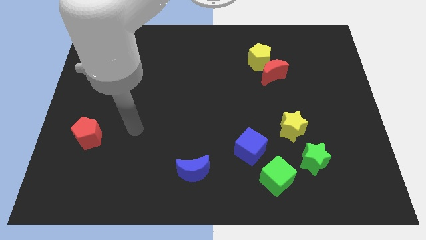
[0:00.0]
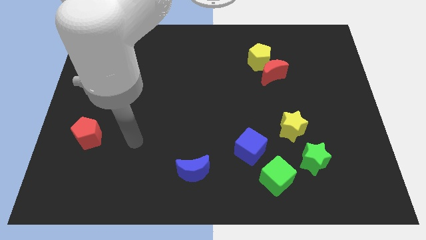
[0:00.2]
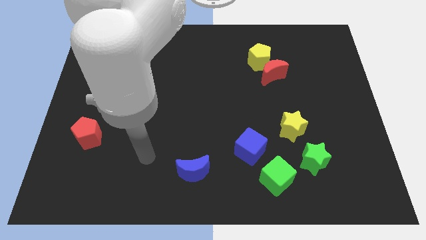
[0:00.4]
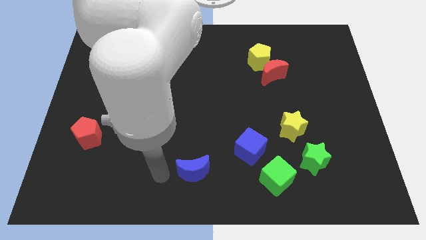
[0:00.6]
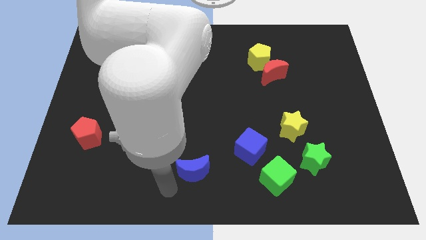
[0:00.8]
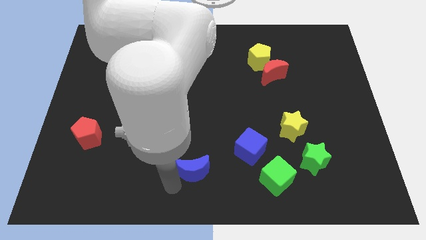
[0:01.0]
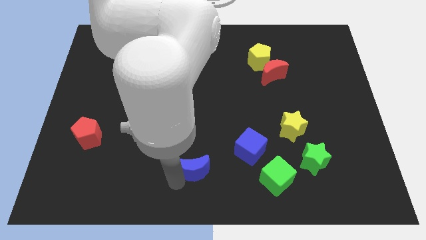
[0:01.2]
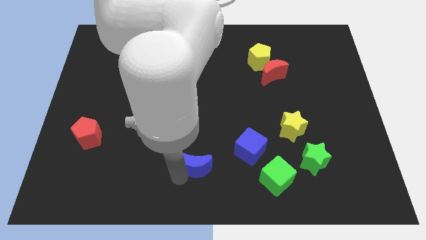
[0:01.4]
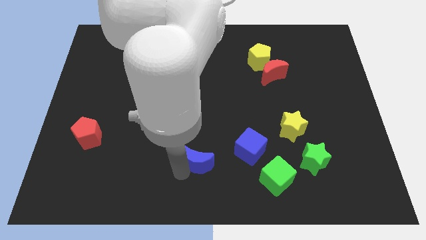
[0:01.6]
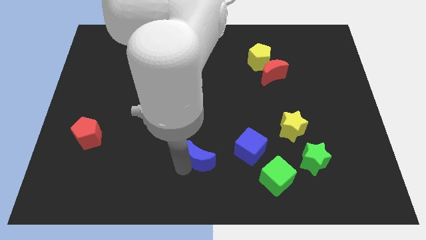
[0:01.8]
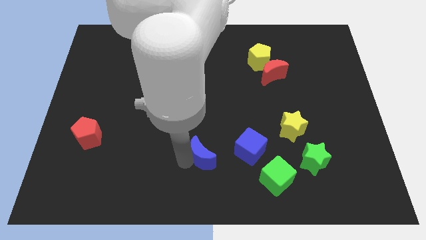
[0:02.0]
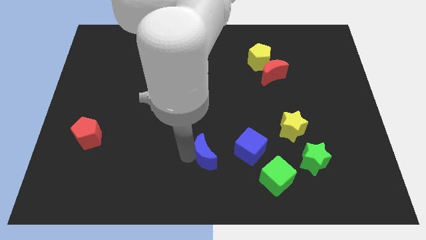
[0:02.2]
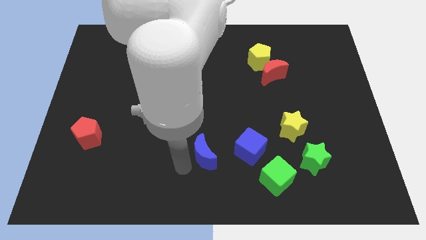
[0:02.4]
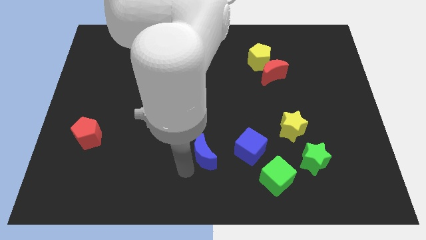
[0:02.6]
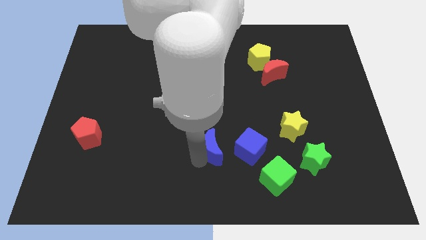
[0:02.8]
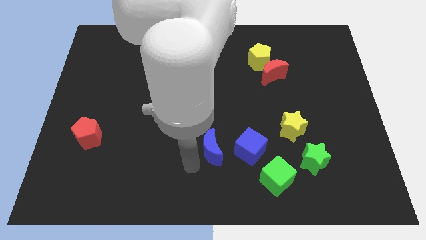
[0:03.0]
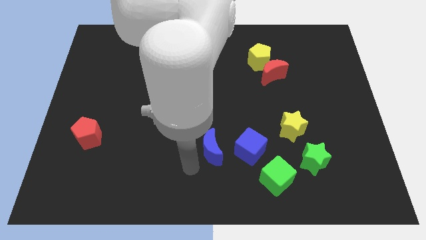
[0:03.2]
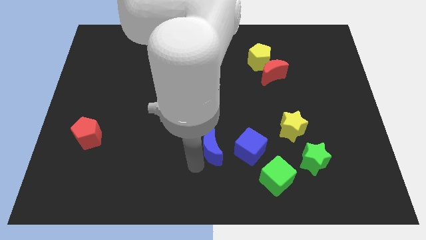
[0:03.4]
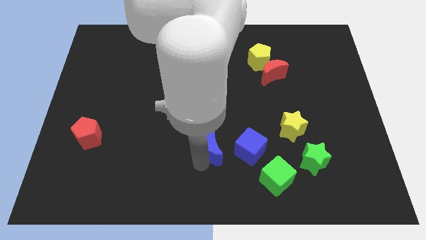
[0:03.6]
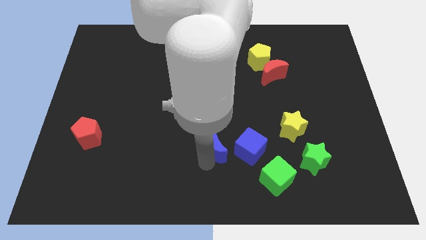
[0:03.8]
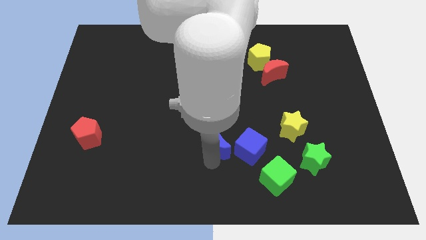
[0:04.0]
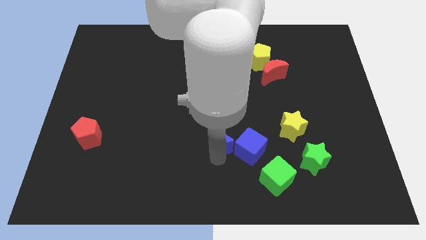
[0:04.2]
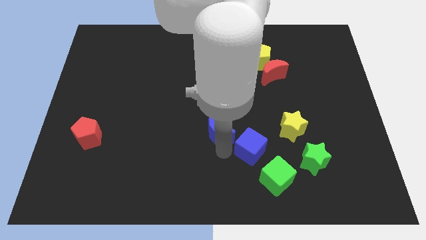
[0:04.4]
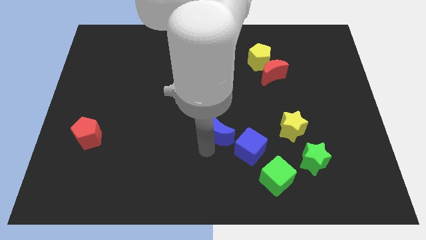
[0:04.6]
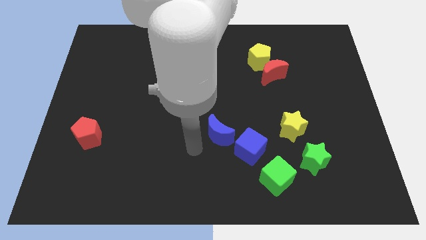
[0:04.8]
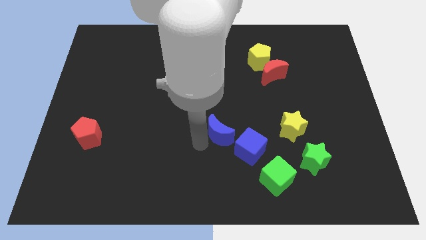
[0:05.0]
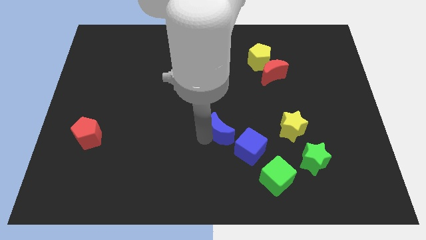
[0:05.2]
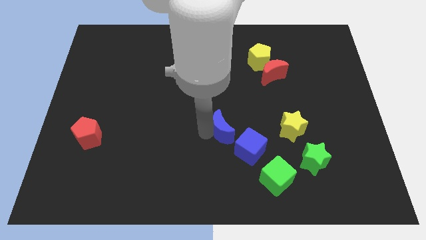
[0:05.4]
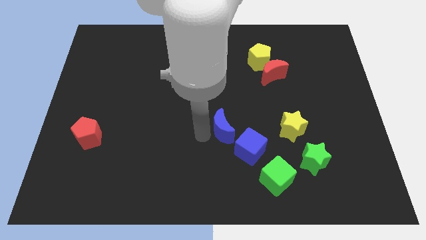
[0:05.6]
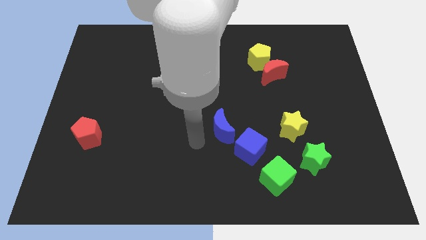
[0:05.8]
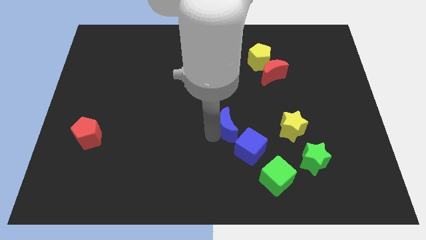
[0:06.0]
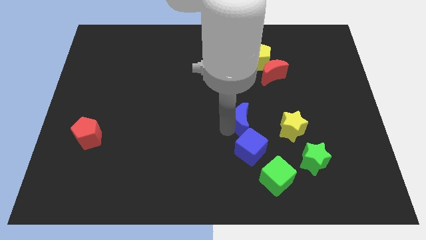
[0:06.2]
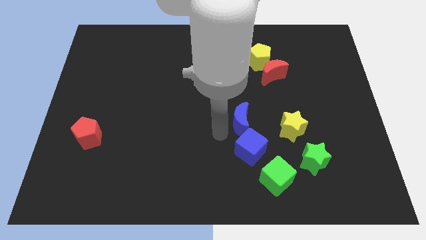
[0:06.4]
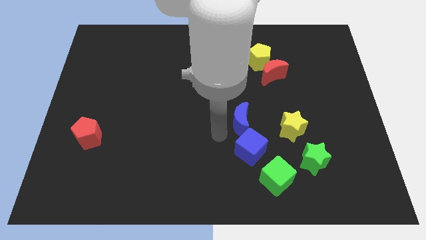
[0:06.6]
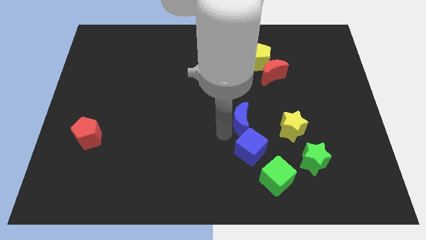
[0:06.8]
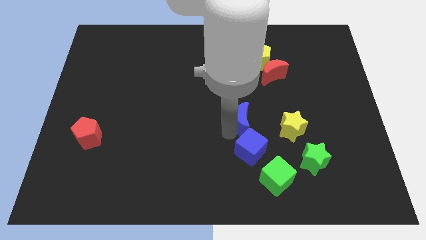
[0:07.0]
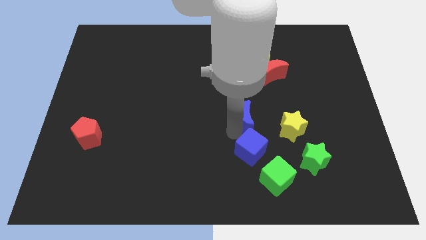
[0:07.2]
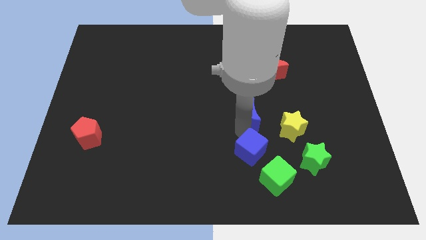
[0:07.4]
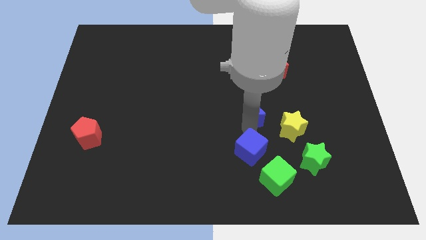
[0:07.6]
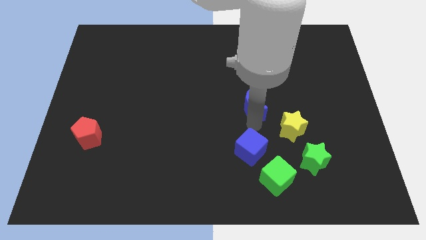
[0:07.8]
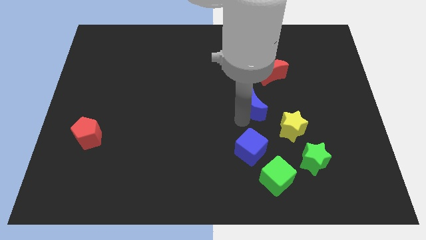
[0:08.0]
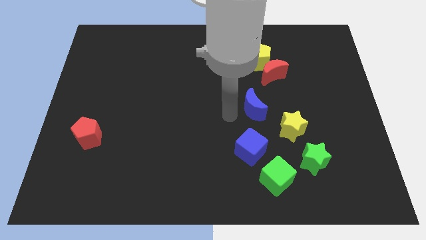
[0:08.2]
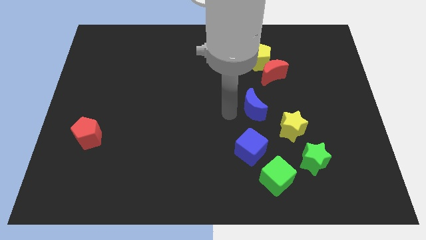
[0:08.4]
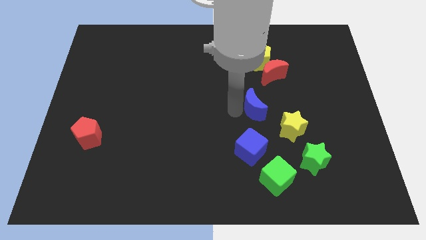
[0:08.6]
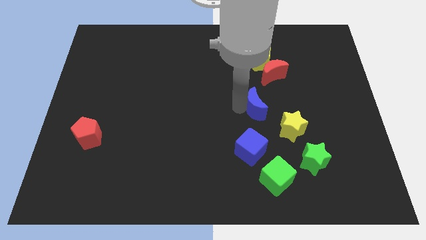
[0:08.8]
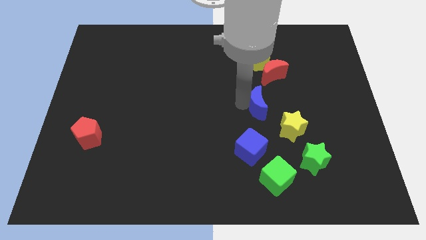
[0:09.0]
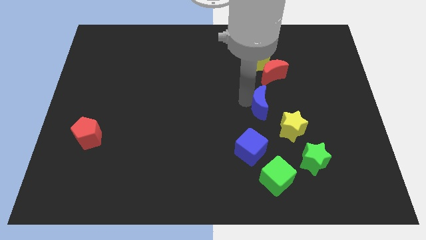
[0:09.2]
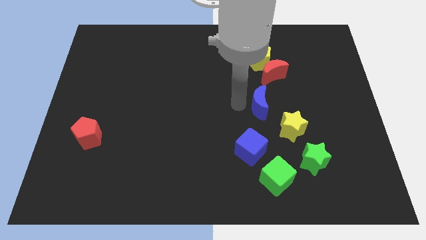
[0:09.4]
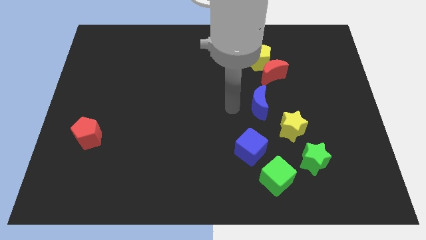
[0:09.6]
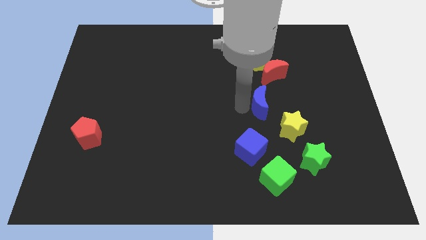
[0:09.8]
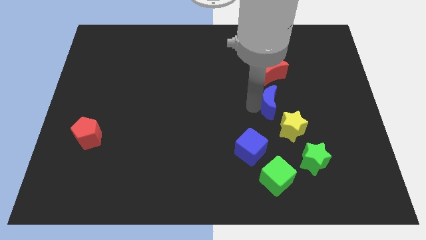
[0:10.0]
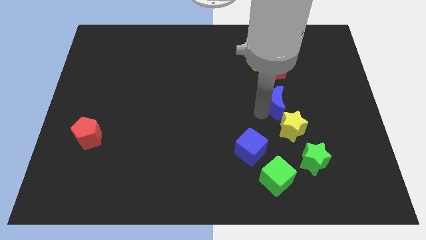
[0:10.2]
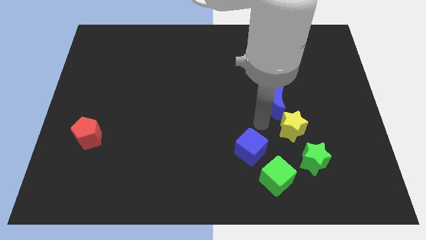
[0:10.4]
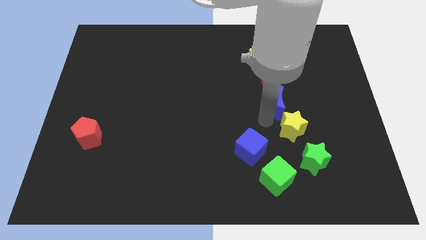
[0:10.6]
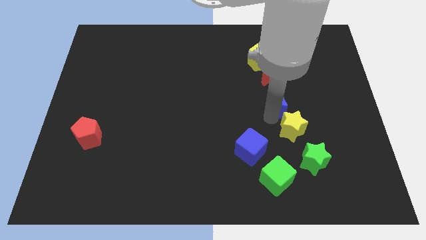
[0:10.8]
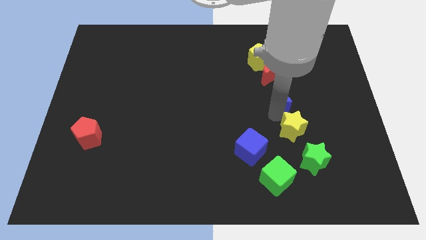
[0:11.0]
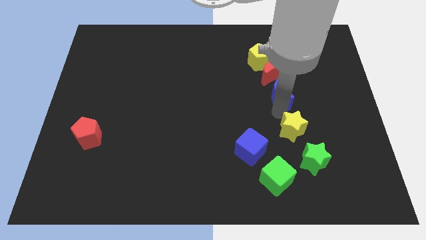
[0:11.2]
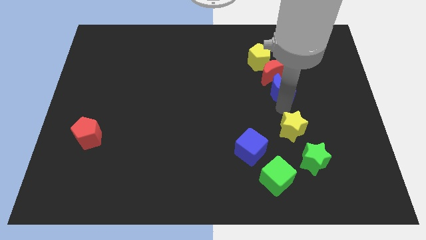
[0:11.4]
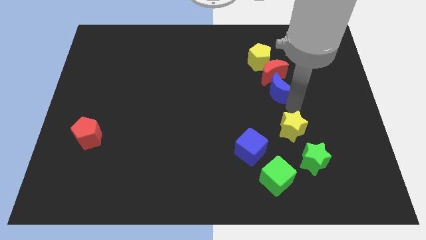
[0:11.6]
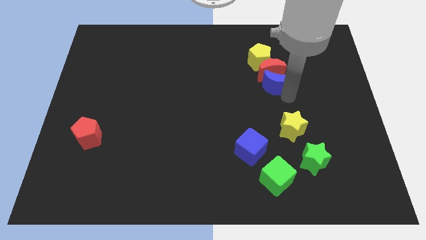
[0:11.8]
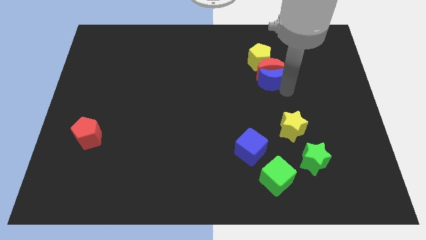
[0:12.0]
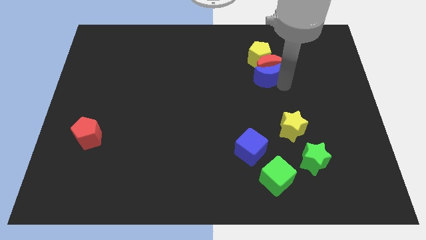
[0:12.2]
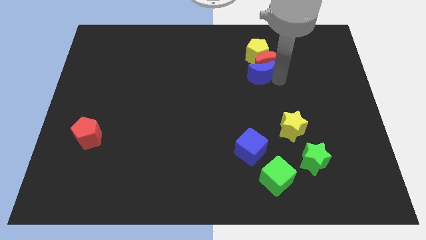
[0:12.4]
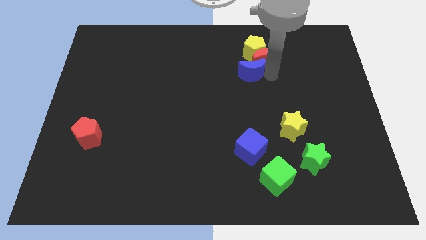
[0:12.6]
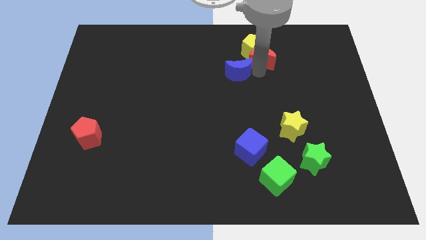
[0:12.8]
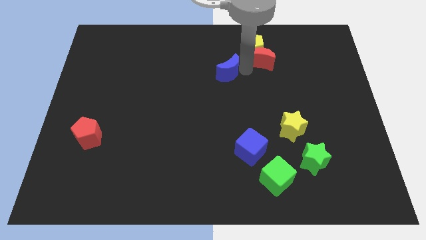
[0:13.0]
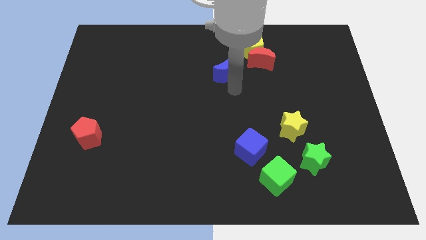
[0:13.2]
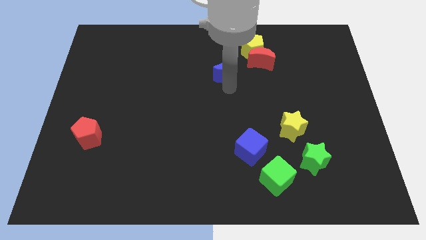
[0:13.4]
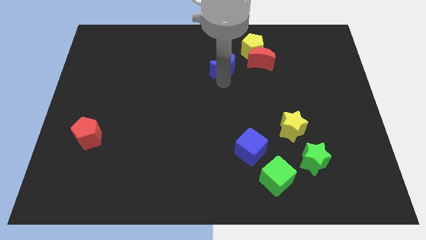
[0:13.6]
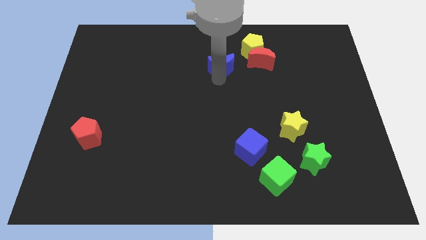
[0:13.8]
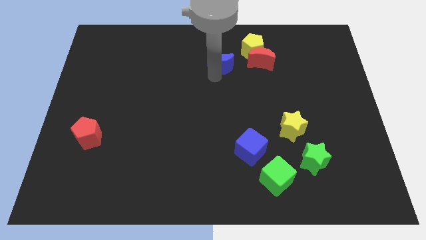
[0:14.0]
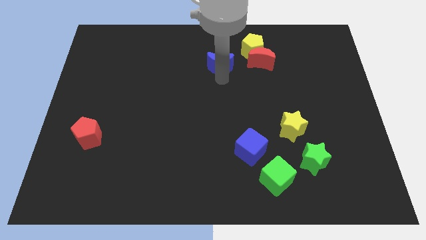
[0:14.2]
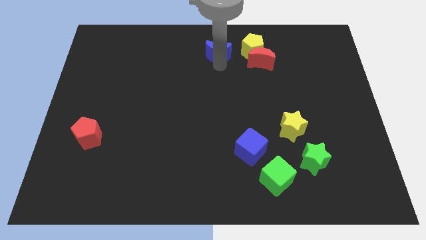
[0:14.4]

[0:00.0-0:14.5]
put the blue moon to the towards your base

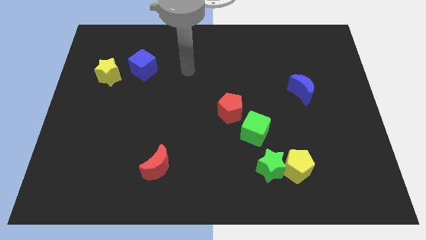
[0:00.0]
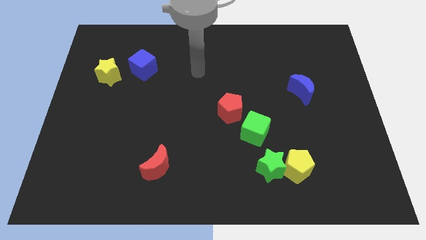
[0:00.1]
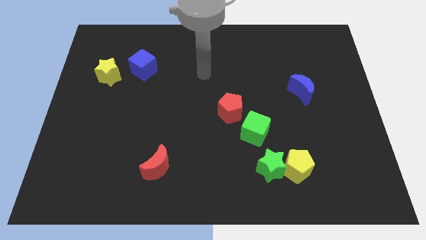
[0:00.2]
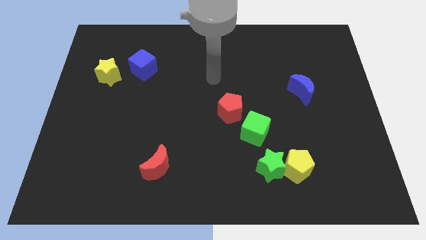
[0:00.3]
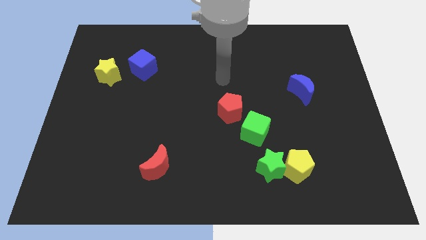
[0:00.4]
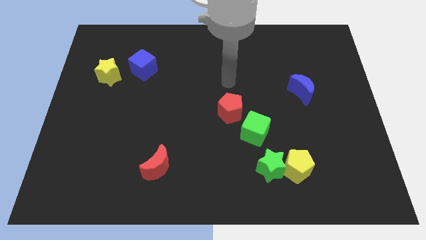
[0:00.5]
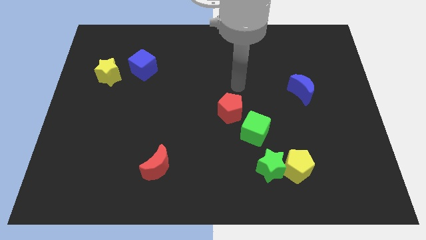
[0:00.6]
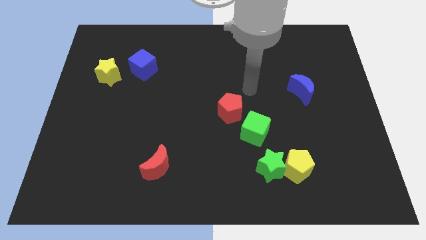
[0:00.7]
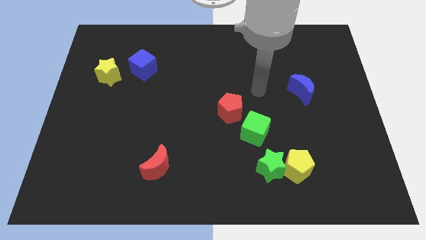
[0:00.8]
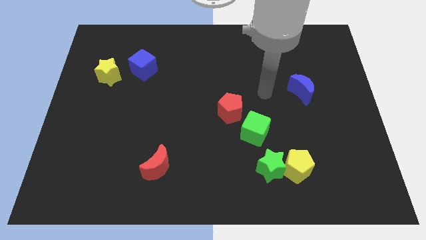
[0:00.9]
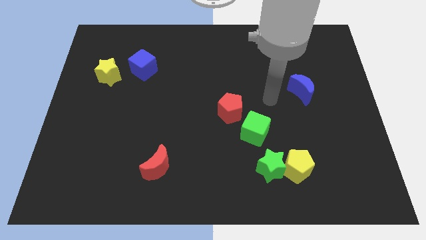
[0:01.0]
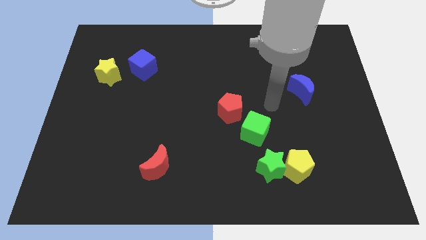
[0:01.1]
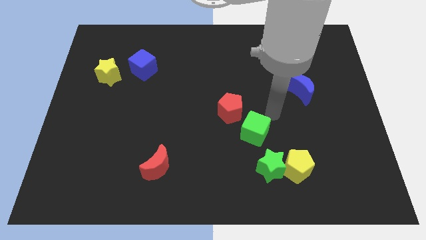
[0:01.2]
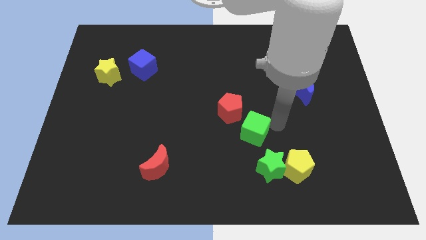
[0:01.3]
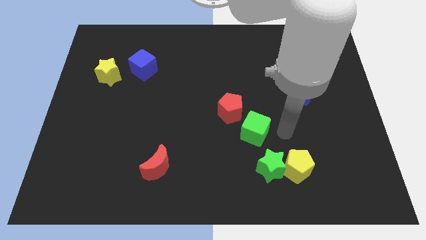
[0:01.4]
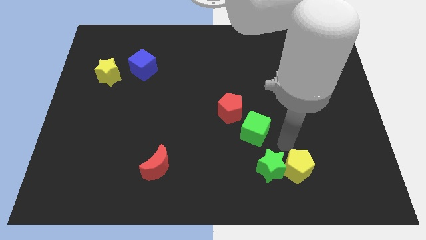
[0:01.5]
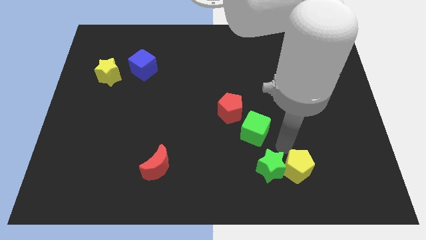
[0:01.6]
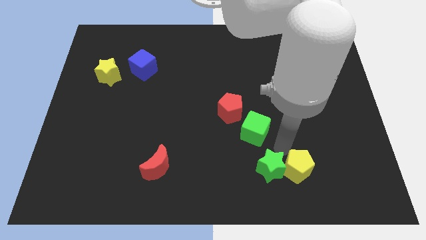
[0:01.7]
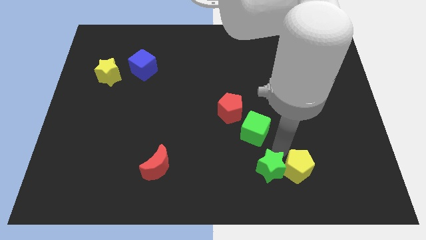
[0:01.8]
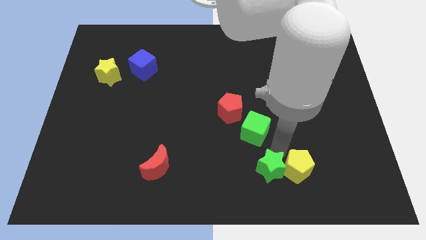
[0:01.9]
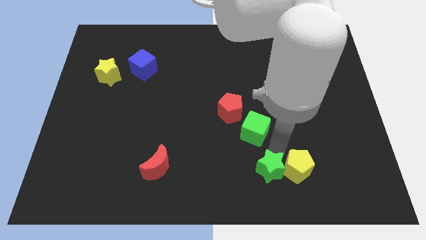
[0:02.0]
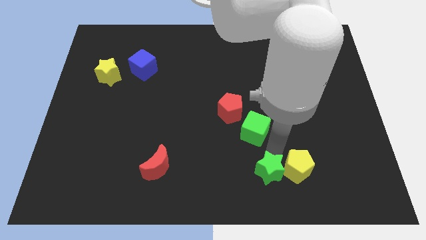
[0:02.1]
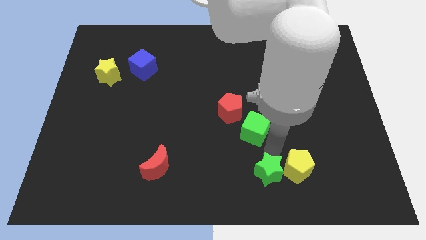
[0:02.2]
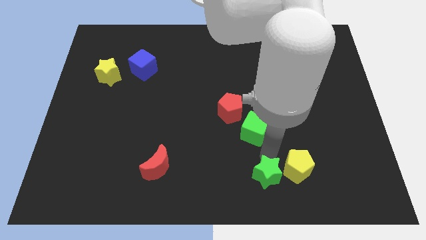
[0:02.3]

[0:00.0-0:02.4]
move the green star to the bottom side
